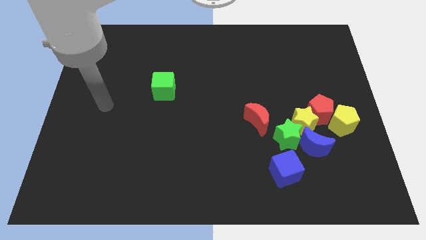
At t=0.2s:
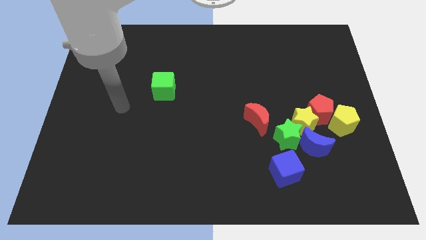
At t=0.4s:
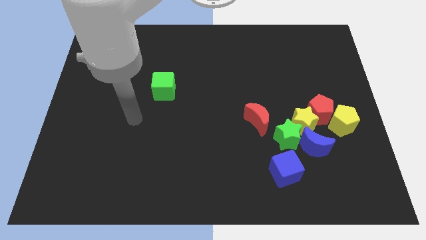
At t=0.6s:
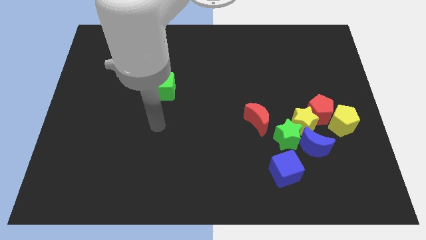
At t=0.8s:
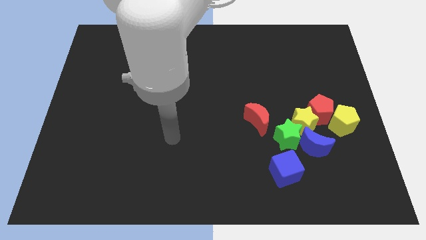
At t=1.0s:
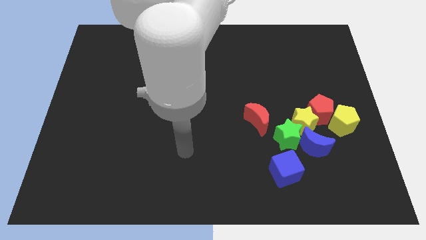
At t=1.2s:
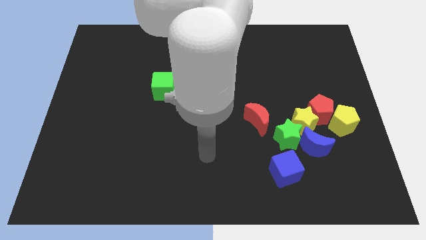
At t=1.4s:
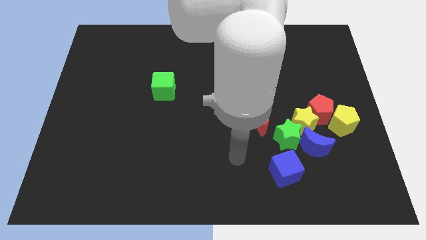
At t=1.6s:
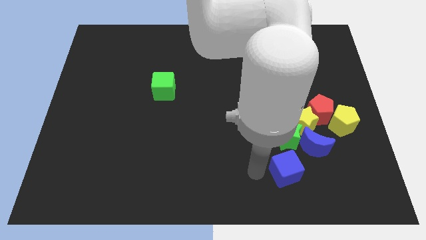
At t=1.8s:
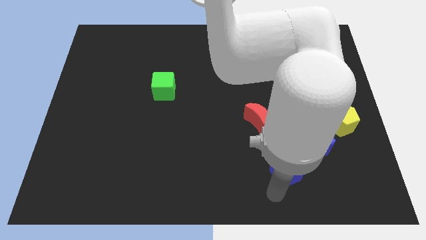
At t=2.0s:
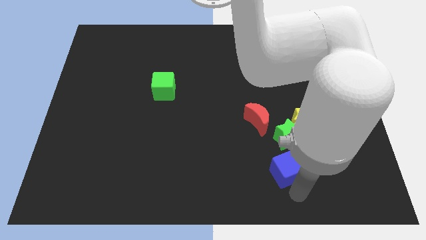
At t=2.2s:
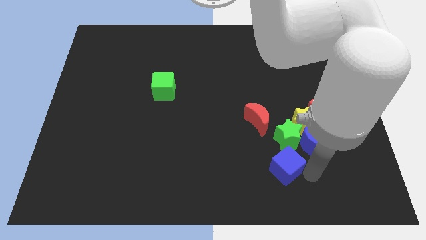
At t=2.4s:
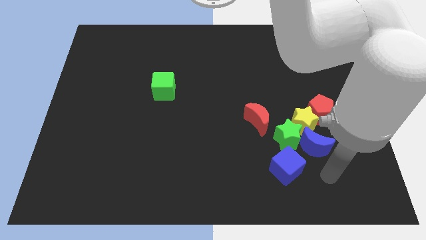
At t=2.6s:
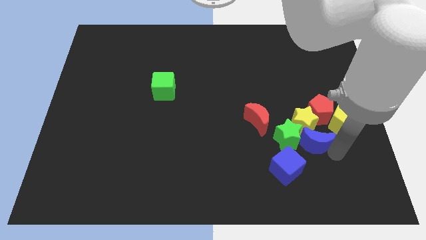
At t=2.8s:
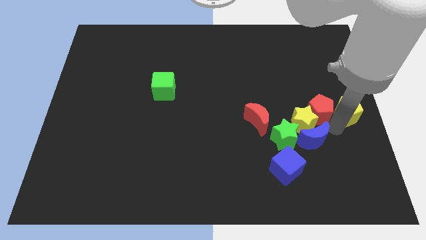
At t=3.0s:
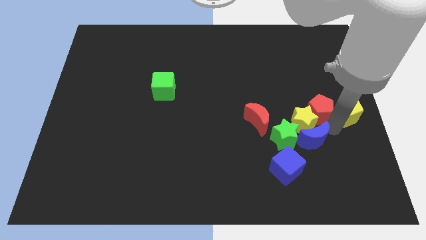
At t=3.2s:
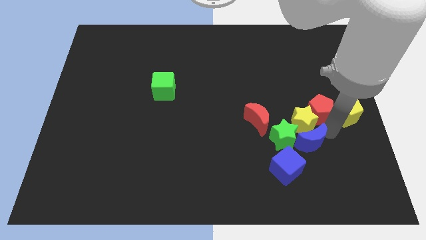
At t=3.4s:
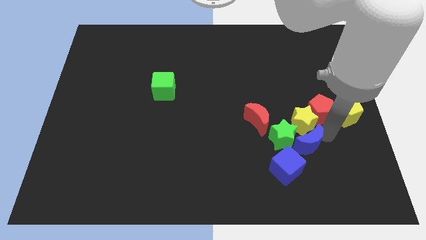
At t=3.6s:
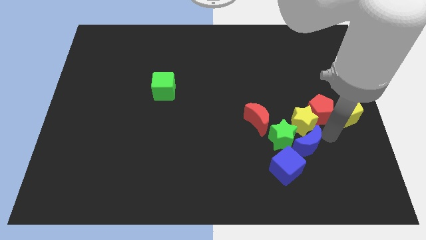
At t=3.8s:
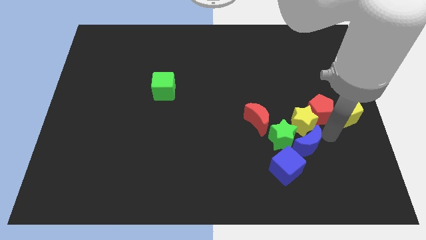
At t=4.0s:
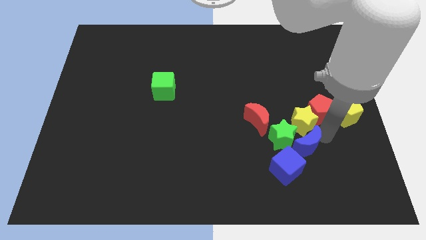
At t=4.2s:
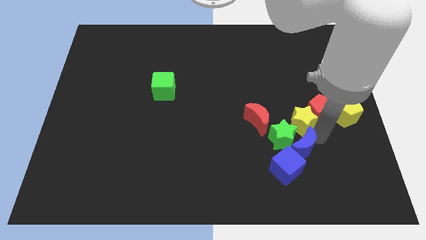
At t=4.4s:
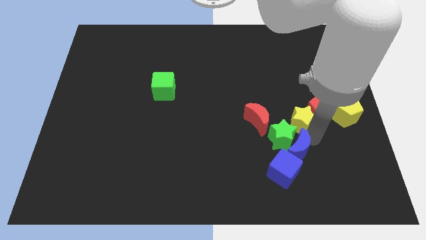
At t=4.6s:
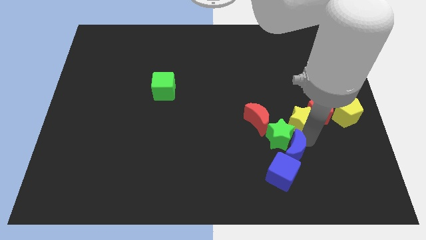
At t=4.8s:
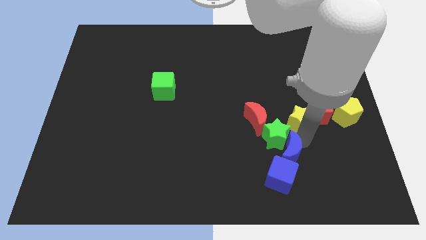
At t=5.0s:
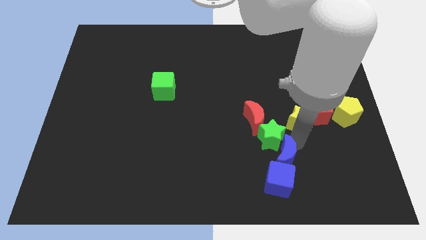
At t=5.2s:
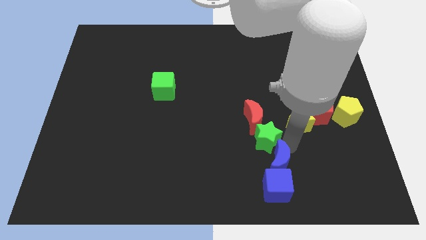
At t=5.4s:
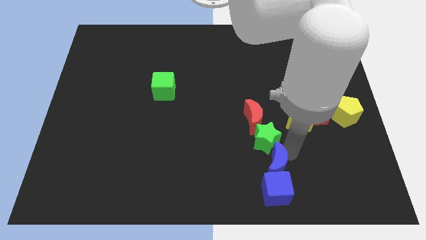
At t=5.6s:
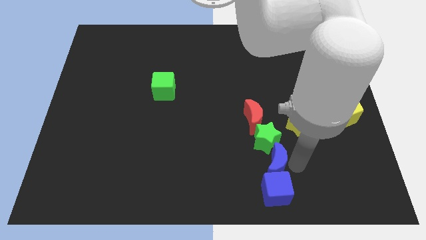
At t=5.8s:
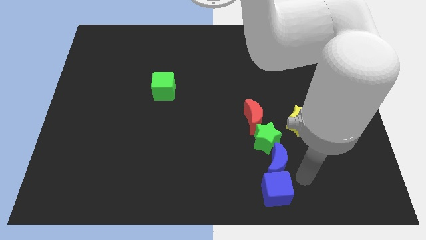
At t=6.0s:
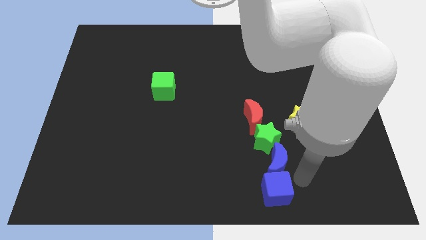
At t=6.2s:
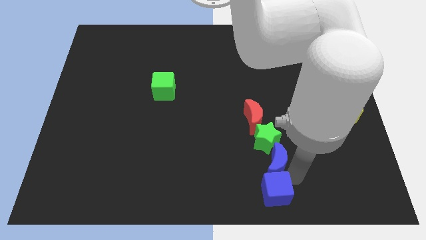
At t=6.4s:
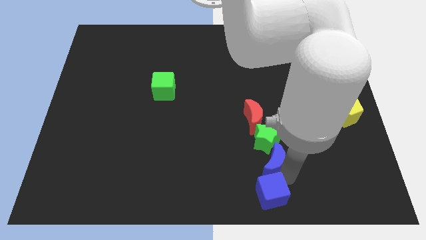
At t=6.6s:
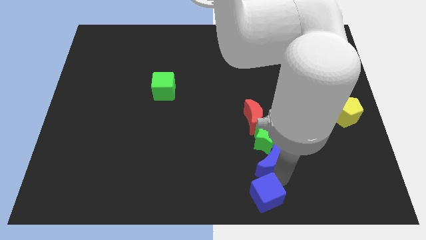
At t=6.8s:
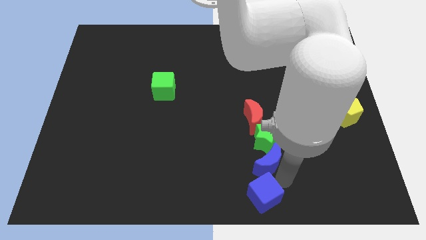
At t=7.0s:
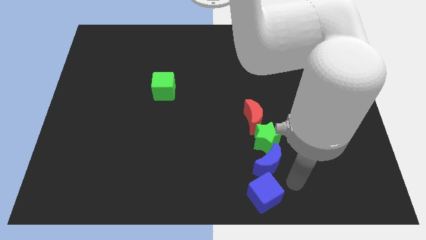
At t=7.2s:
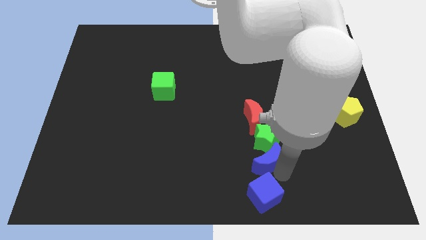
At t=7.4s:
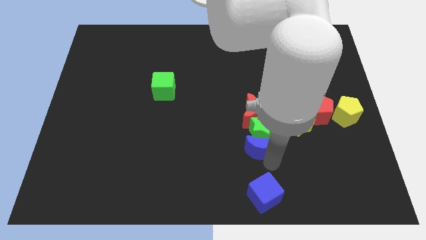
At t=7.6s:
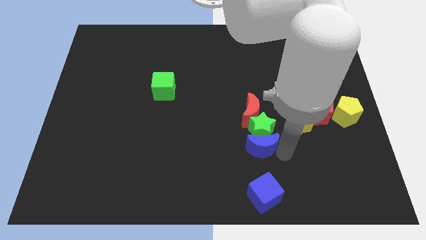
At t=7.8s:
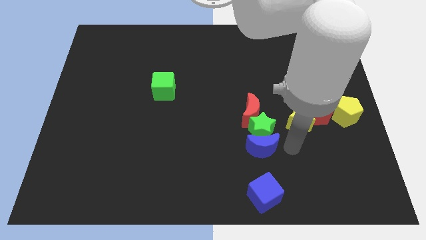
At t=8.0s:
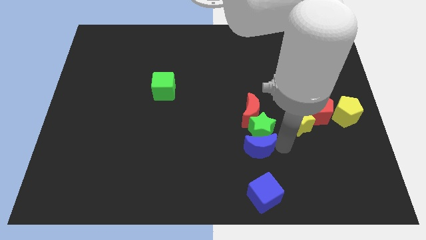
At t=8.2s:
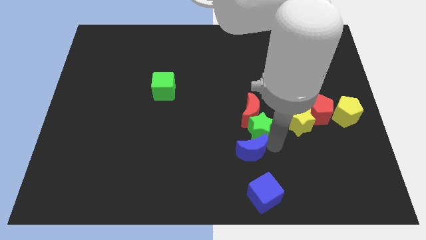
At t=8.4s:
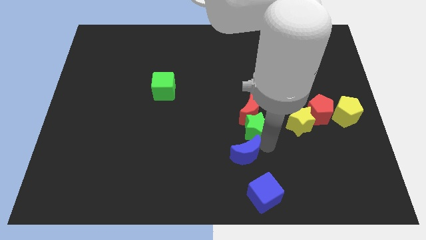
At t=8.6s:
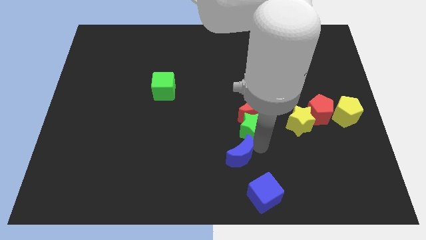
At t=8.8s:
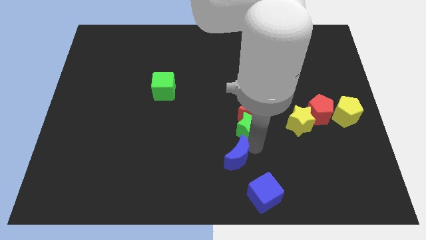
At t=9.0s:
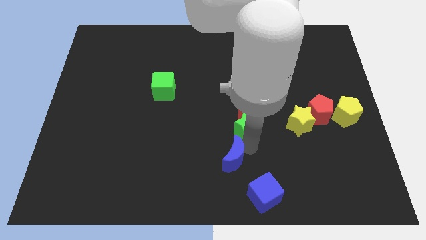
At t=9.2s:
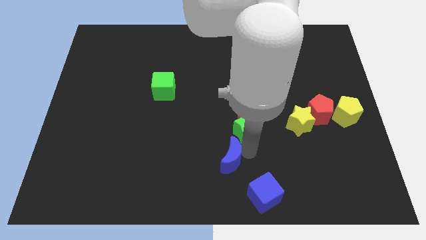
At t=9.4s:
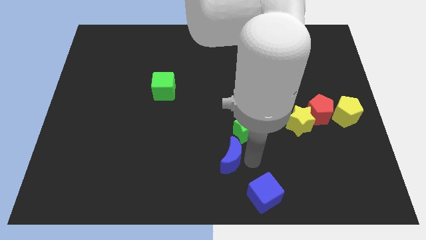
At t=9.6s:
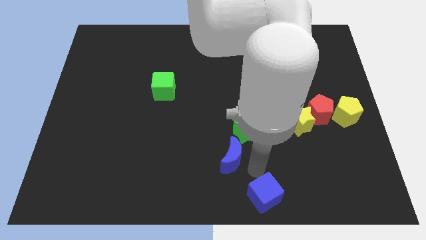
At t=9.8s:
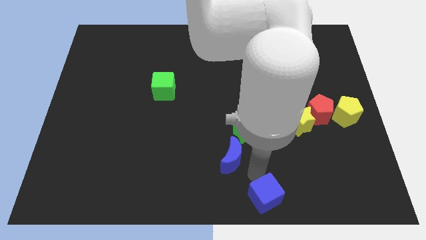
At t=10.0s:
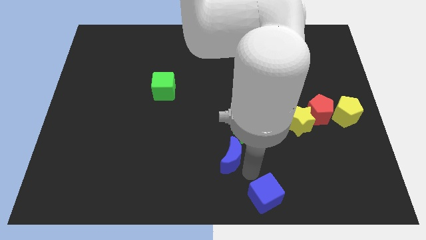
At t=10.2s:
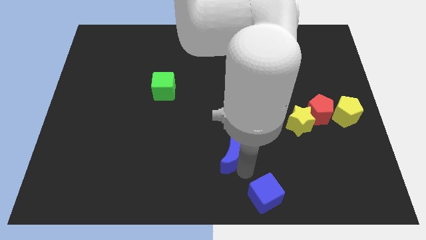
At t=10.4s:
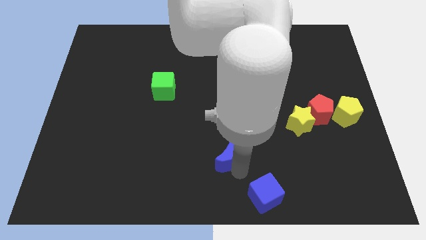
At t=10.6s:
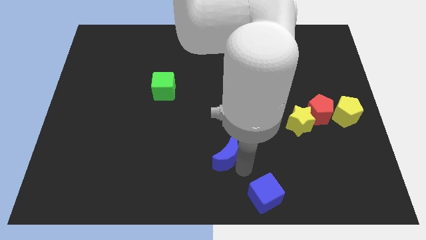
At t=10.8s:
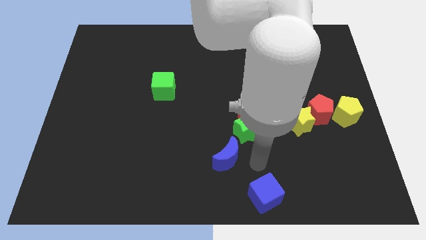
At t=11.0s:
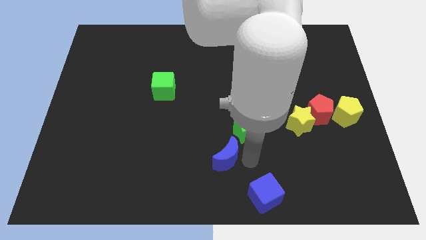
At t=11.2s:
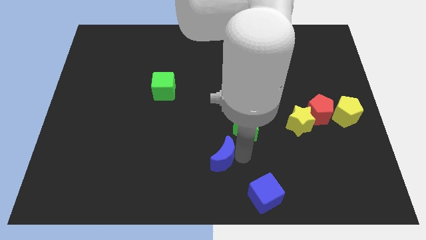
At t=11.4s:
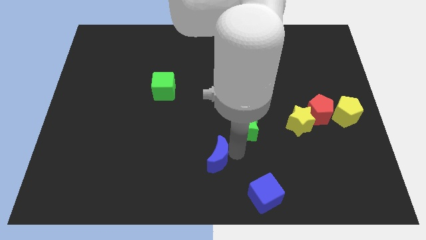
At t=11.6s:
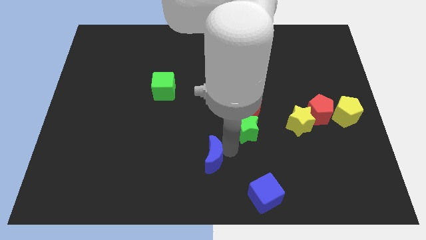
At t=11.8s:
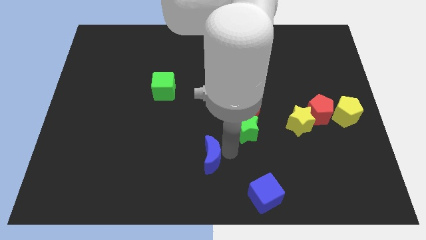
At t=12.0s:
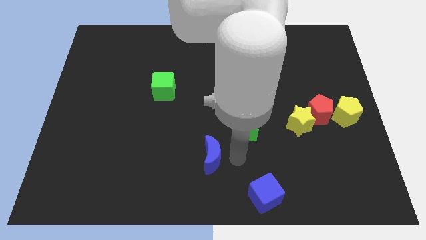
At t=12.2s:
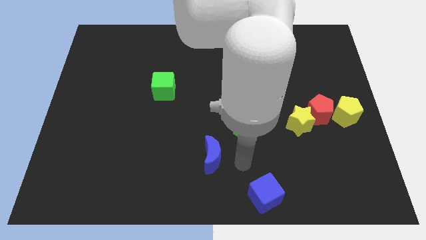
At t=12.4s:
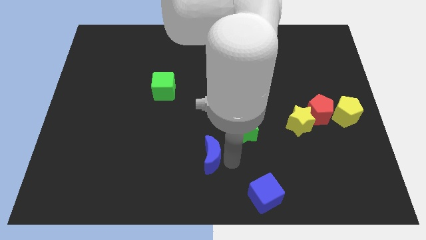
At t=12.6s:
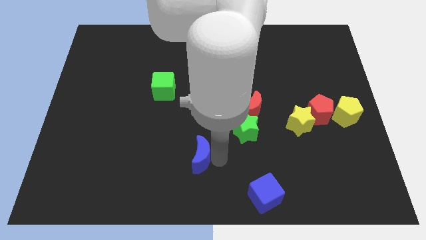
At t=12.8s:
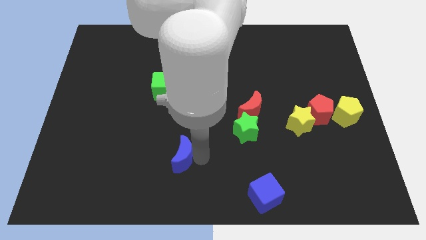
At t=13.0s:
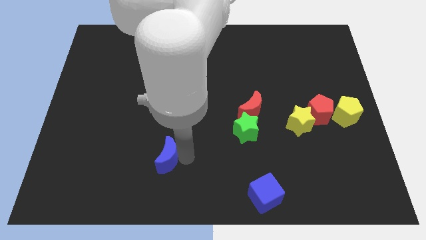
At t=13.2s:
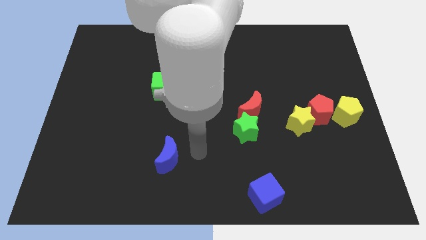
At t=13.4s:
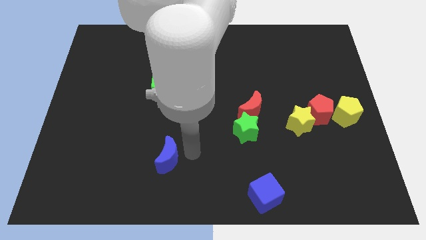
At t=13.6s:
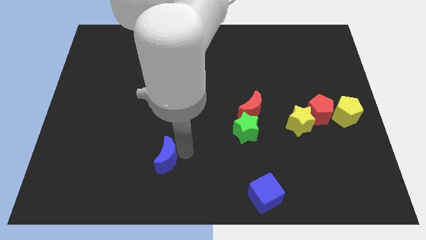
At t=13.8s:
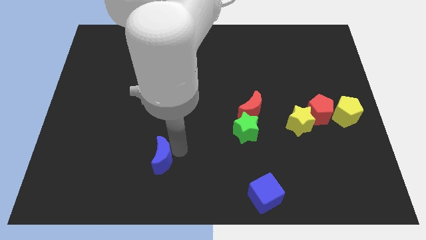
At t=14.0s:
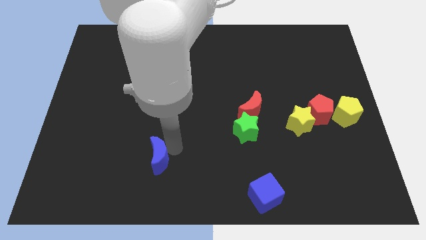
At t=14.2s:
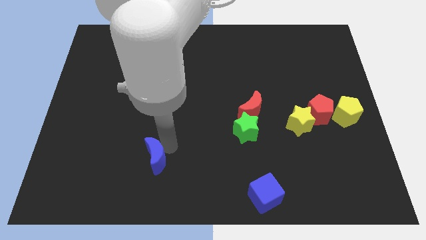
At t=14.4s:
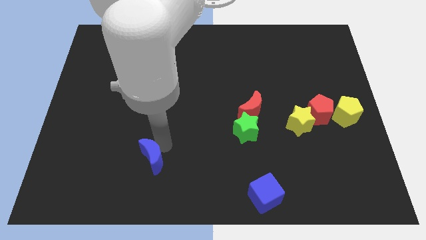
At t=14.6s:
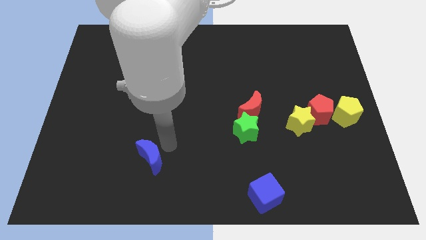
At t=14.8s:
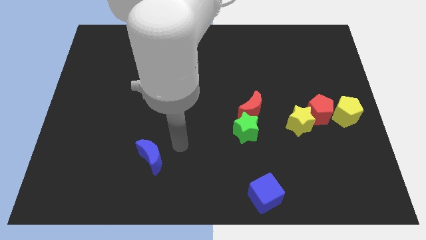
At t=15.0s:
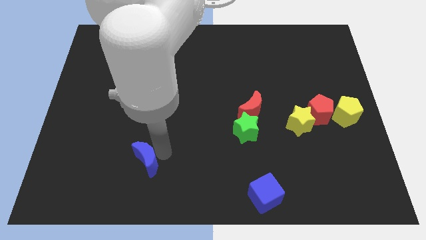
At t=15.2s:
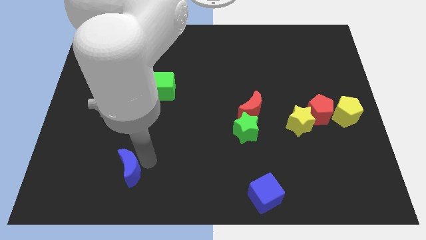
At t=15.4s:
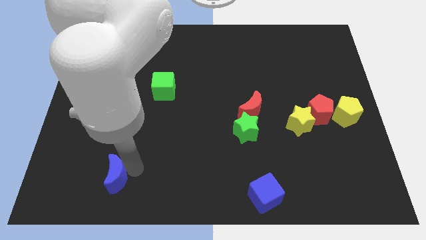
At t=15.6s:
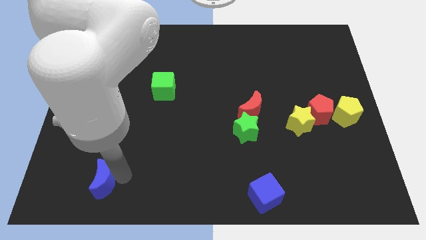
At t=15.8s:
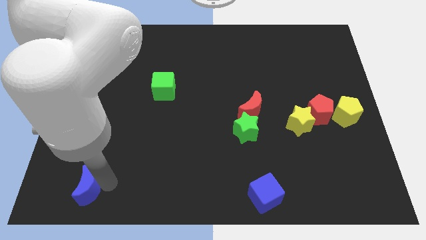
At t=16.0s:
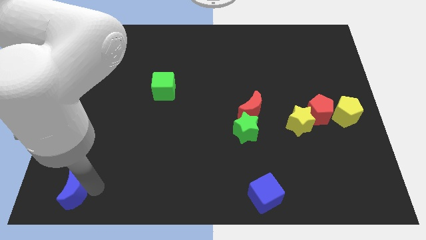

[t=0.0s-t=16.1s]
slide the blue moon to the bottom left
